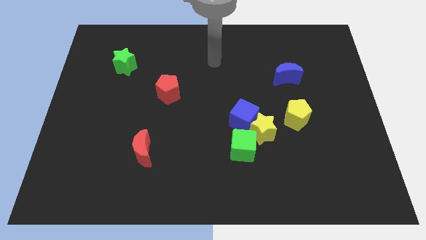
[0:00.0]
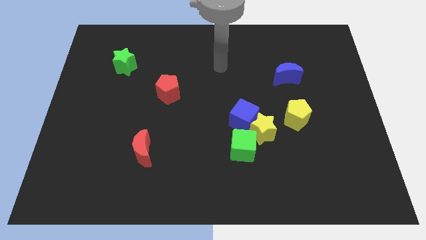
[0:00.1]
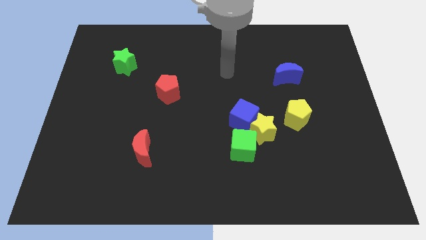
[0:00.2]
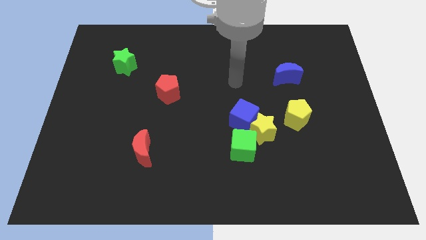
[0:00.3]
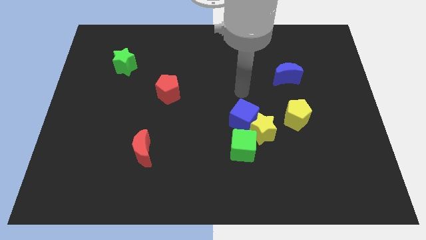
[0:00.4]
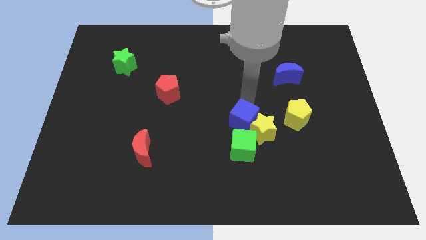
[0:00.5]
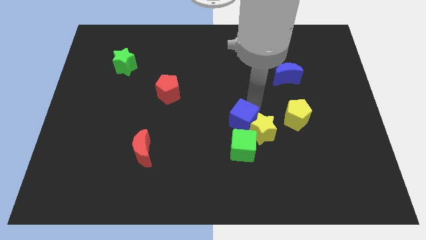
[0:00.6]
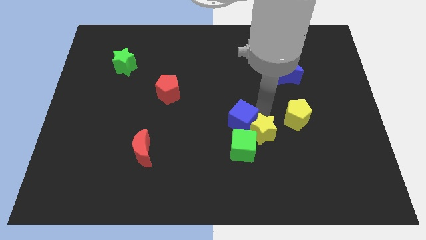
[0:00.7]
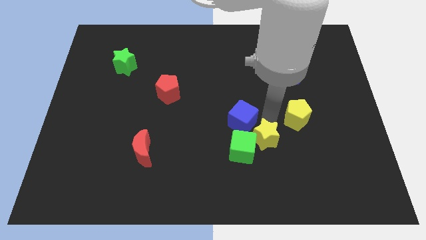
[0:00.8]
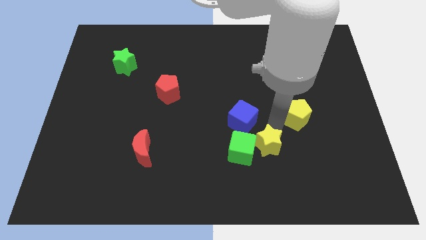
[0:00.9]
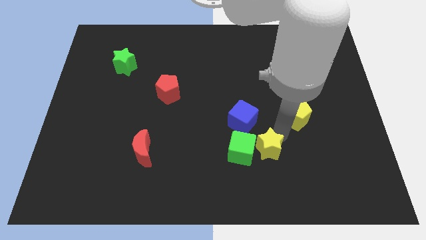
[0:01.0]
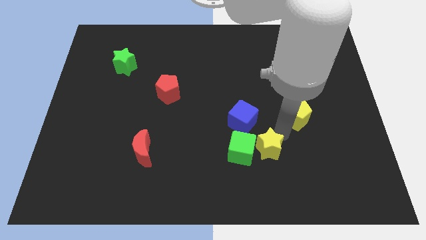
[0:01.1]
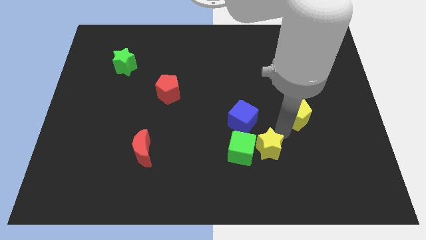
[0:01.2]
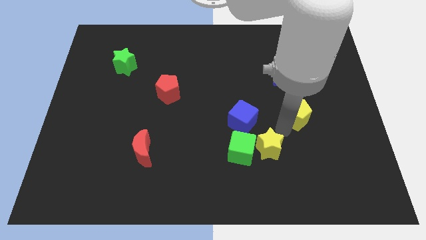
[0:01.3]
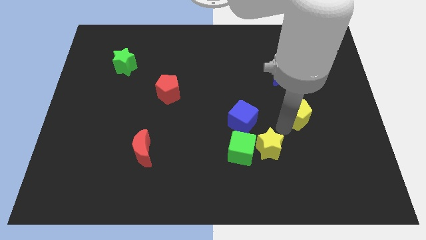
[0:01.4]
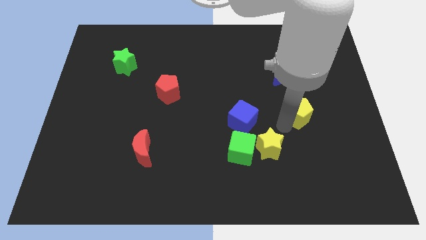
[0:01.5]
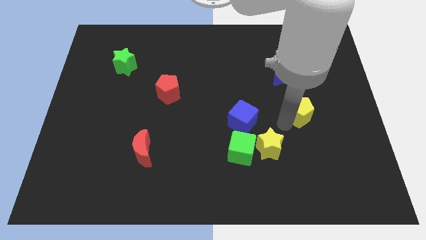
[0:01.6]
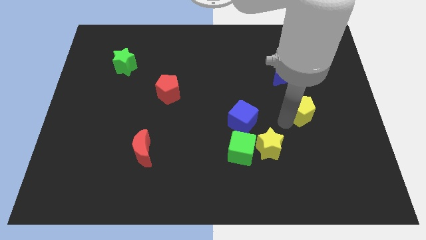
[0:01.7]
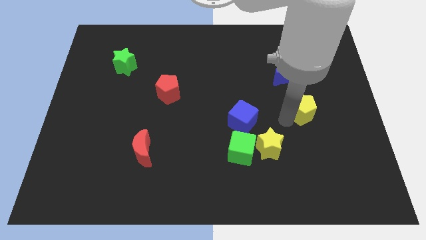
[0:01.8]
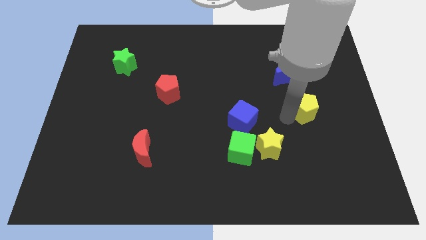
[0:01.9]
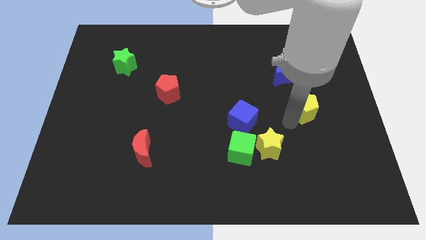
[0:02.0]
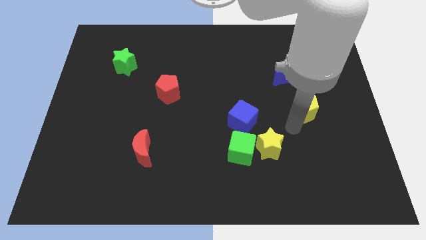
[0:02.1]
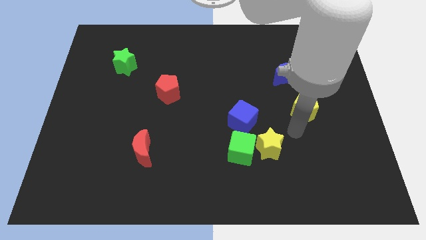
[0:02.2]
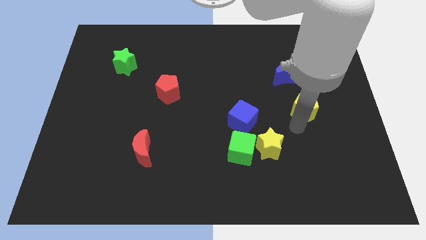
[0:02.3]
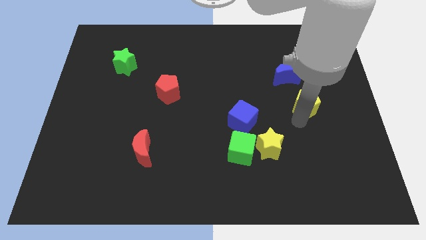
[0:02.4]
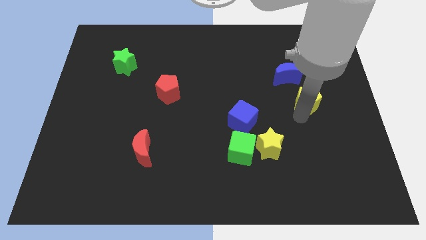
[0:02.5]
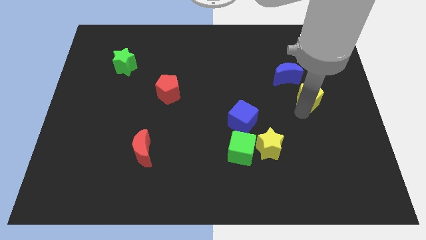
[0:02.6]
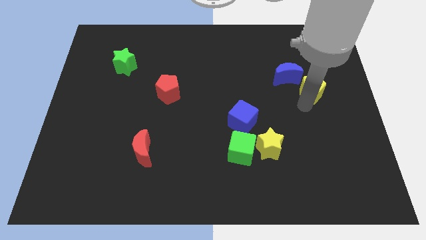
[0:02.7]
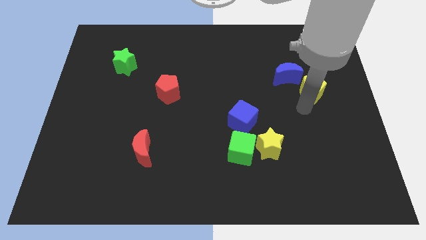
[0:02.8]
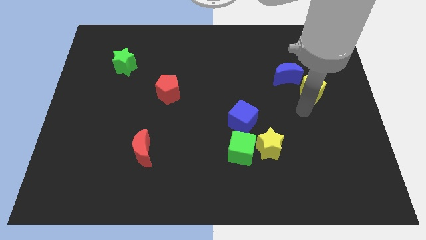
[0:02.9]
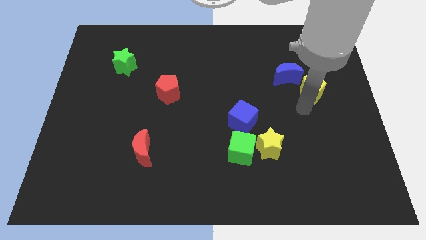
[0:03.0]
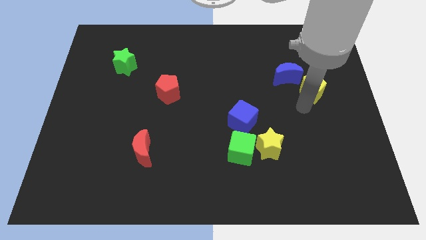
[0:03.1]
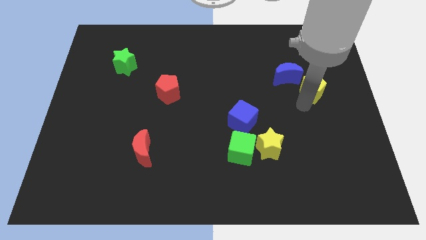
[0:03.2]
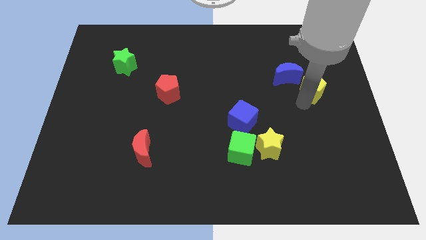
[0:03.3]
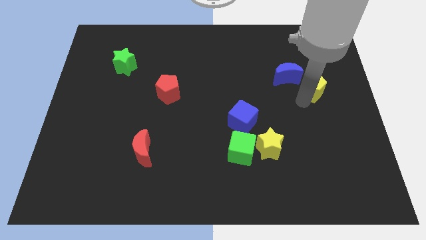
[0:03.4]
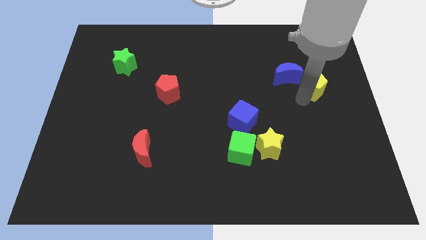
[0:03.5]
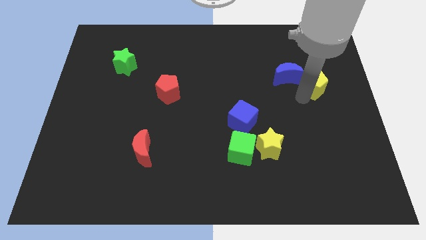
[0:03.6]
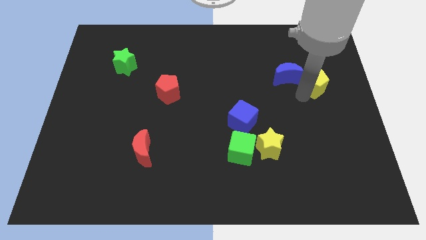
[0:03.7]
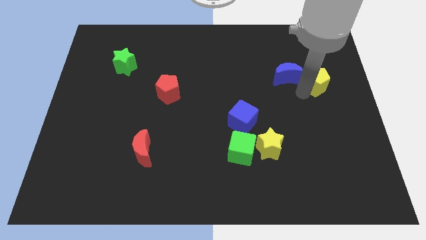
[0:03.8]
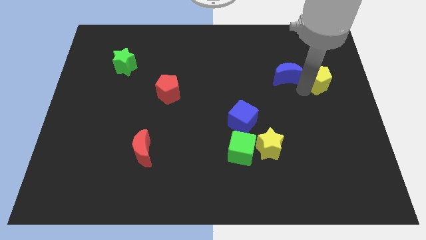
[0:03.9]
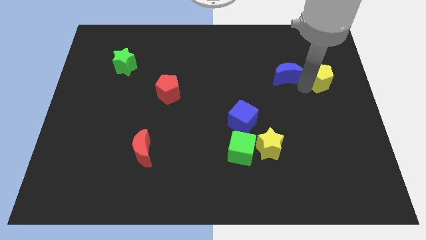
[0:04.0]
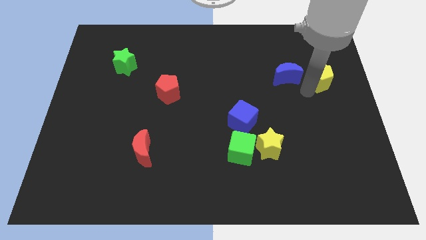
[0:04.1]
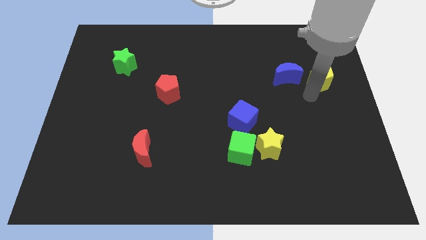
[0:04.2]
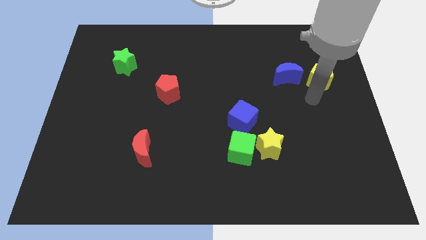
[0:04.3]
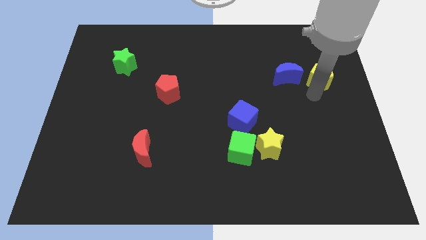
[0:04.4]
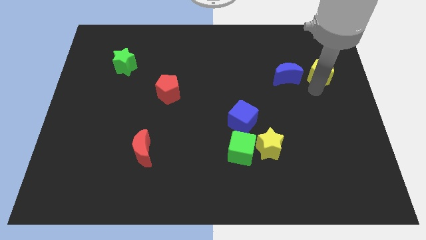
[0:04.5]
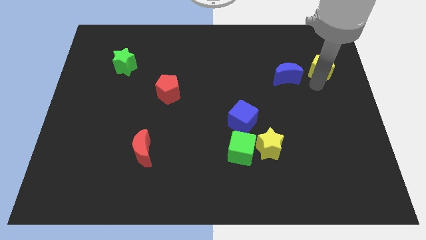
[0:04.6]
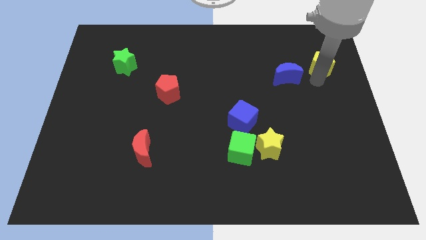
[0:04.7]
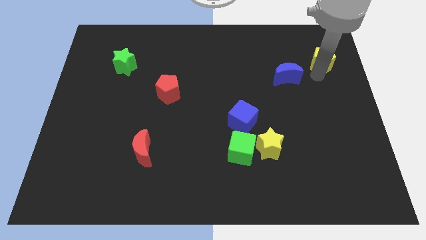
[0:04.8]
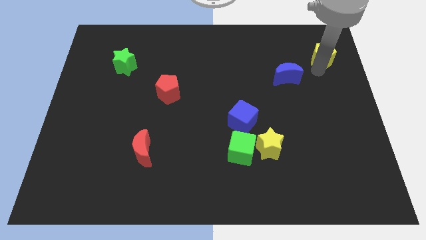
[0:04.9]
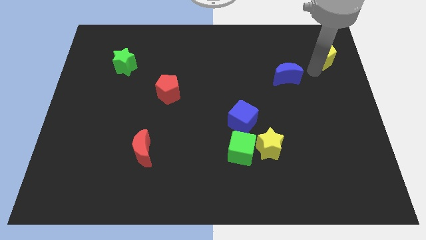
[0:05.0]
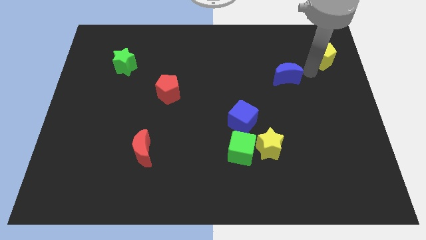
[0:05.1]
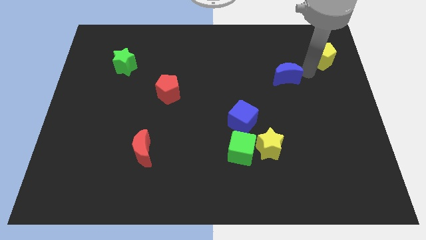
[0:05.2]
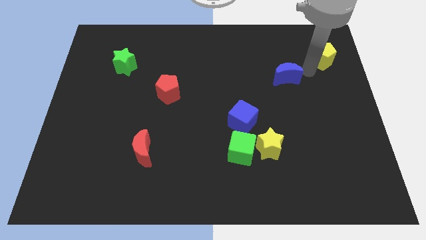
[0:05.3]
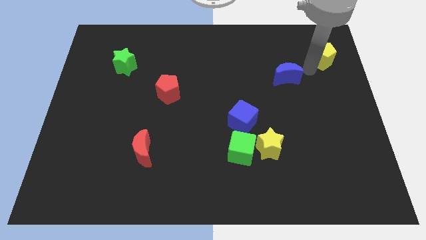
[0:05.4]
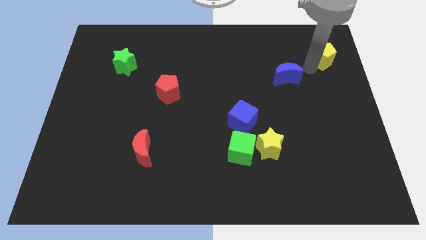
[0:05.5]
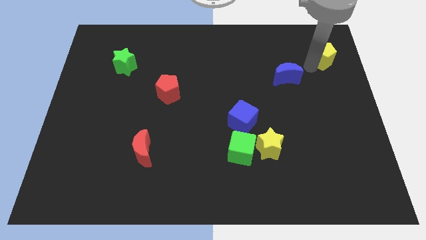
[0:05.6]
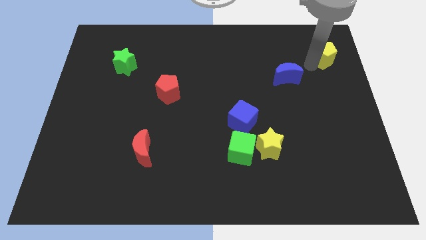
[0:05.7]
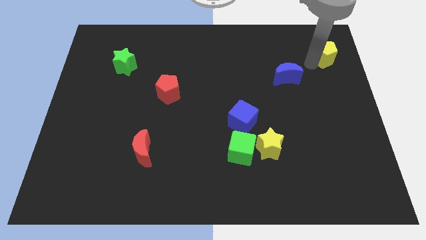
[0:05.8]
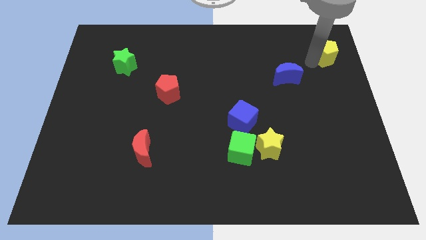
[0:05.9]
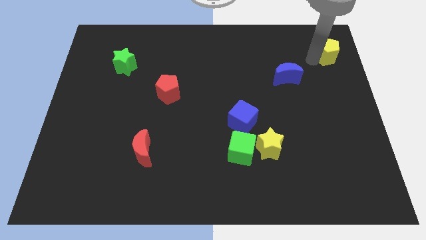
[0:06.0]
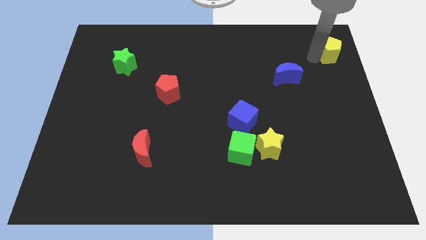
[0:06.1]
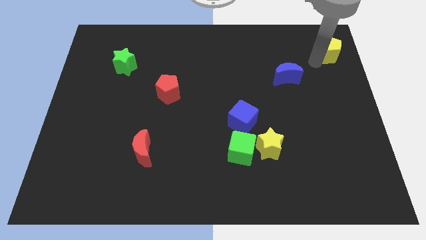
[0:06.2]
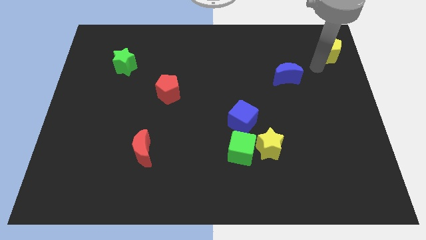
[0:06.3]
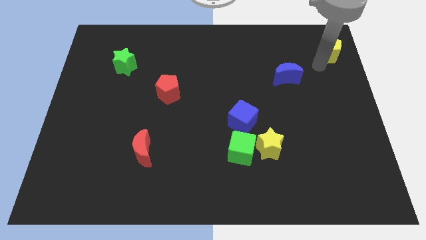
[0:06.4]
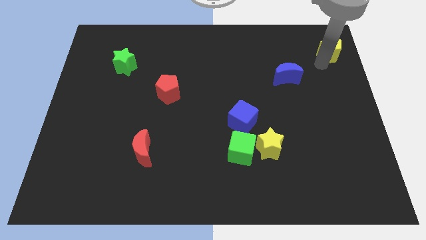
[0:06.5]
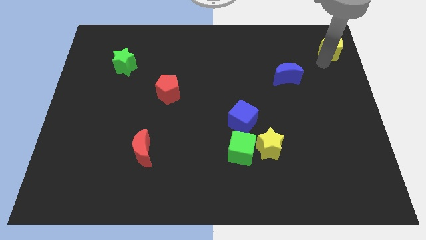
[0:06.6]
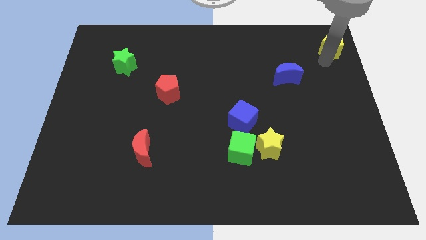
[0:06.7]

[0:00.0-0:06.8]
move the yellow pentagon to the top right corner
